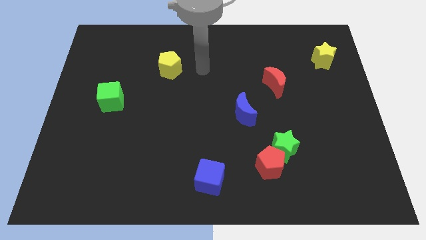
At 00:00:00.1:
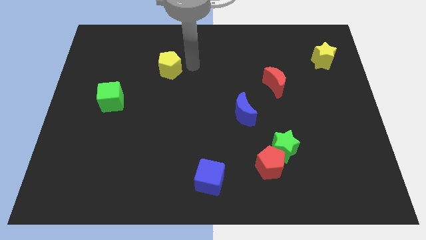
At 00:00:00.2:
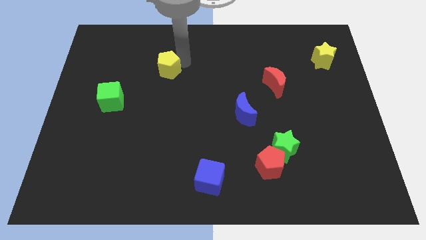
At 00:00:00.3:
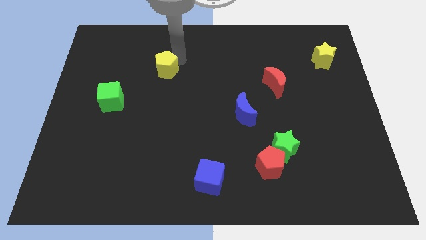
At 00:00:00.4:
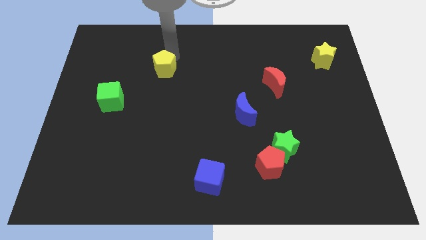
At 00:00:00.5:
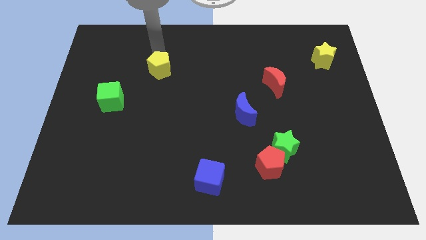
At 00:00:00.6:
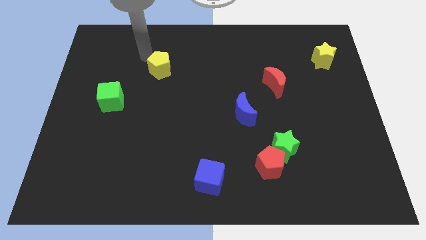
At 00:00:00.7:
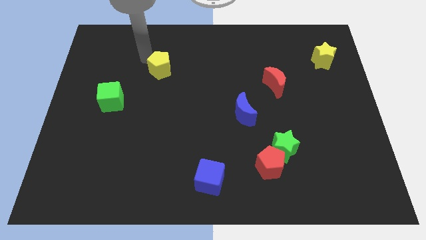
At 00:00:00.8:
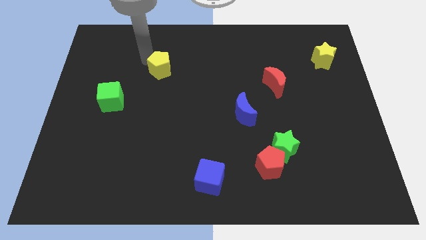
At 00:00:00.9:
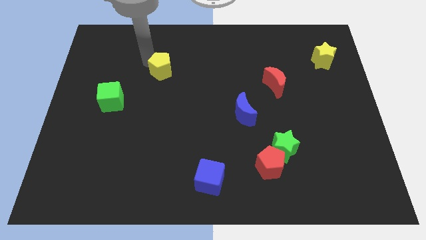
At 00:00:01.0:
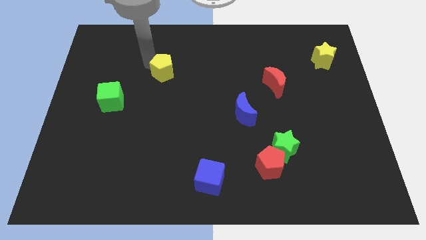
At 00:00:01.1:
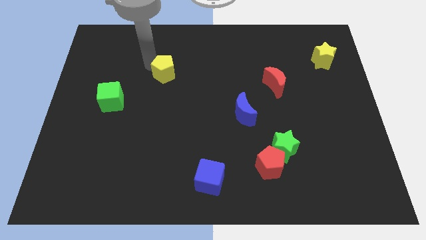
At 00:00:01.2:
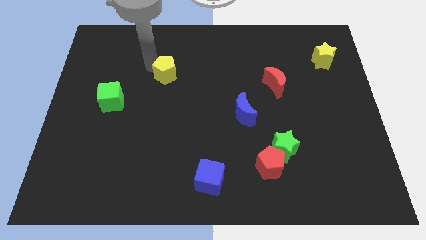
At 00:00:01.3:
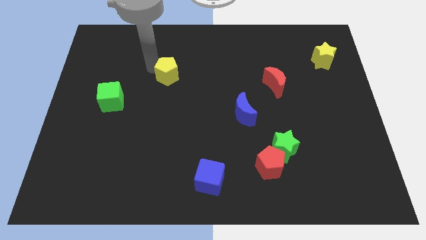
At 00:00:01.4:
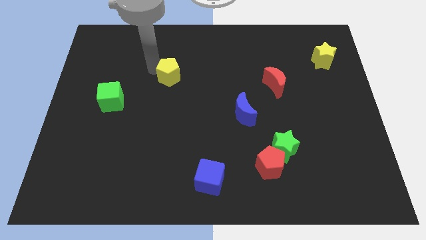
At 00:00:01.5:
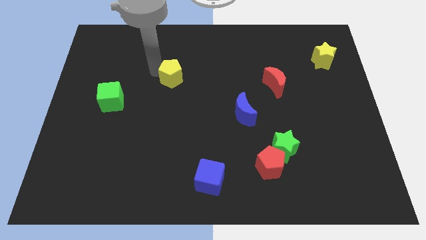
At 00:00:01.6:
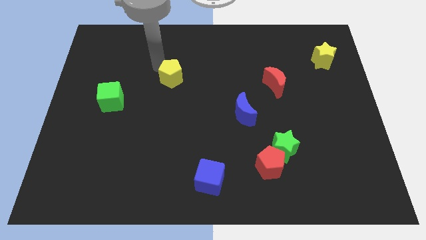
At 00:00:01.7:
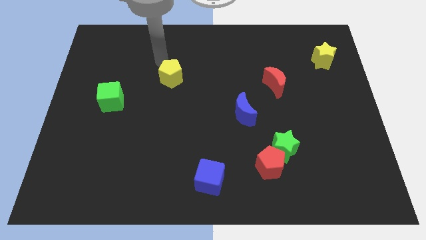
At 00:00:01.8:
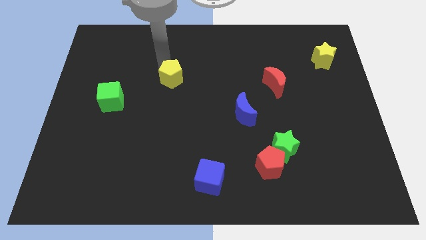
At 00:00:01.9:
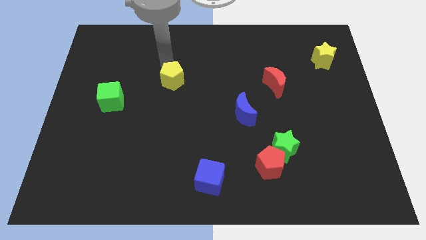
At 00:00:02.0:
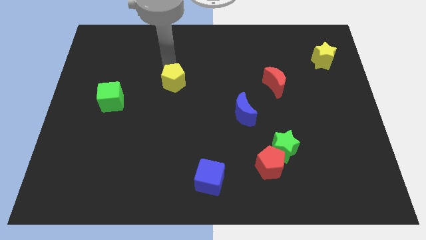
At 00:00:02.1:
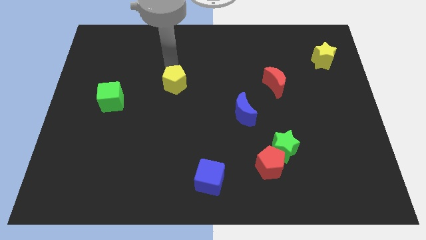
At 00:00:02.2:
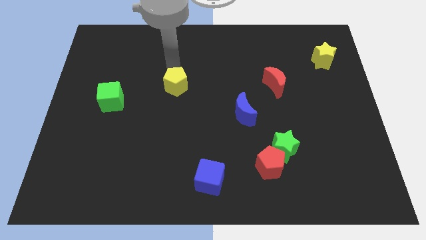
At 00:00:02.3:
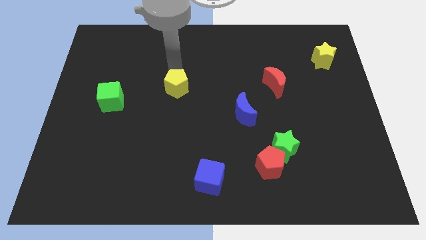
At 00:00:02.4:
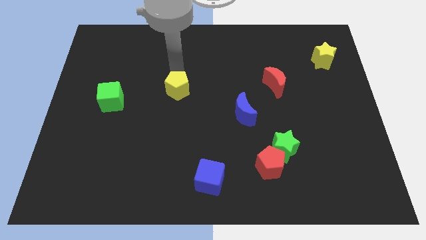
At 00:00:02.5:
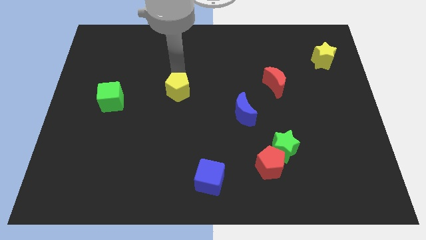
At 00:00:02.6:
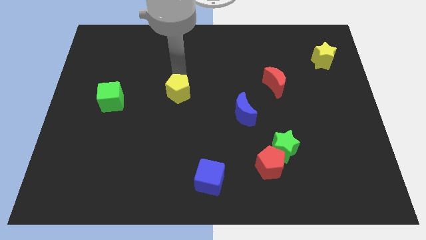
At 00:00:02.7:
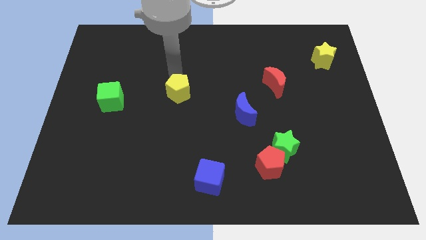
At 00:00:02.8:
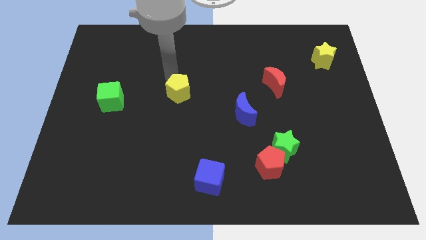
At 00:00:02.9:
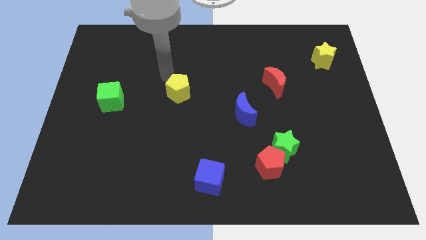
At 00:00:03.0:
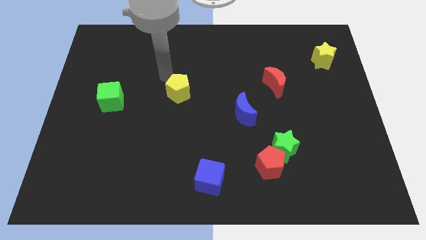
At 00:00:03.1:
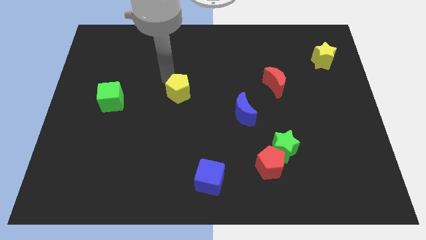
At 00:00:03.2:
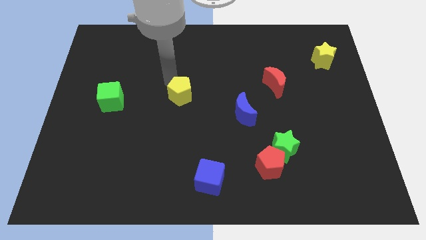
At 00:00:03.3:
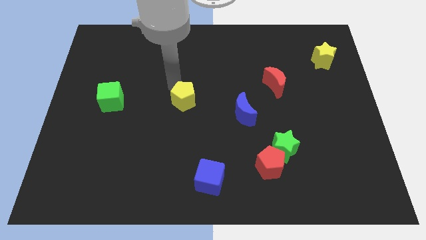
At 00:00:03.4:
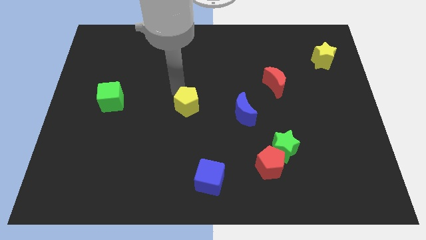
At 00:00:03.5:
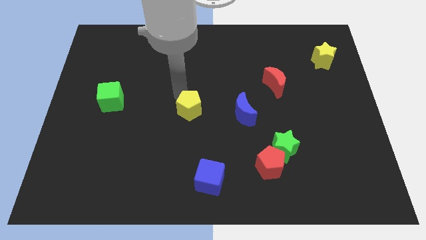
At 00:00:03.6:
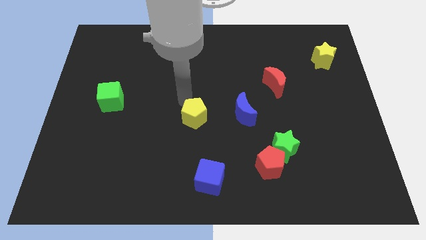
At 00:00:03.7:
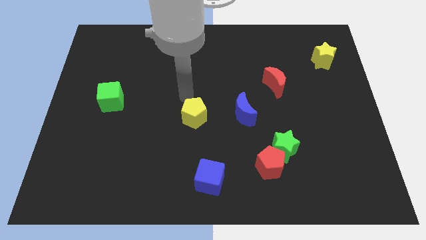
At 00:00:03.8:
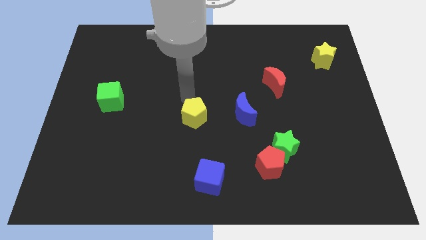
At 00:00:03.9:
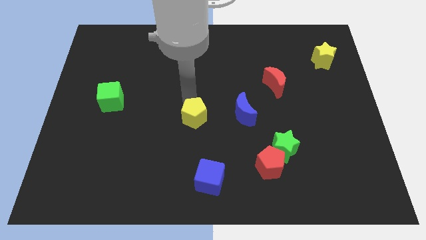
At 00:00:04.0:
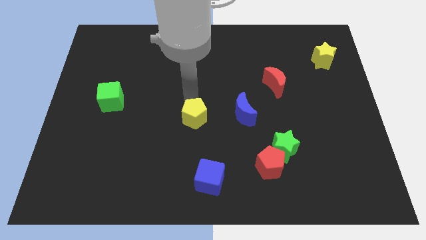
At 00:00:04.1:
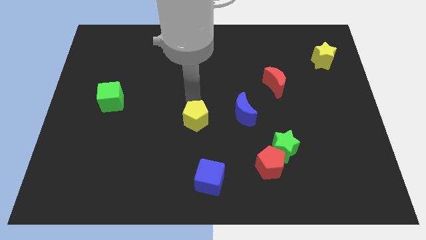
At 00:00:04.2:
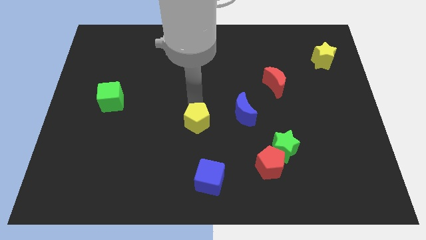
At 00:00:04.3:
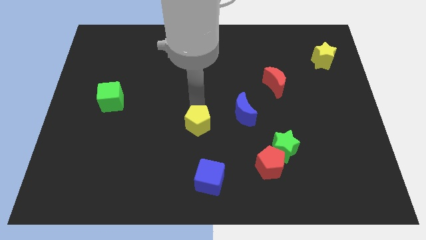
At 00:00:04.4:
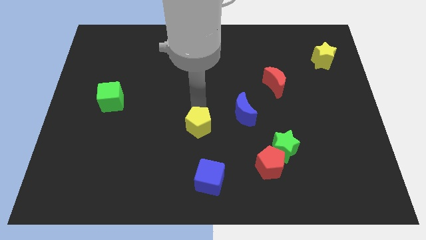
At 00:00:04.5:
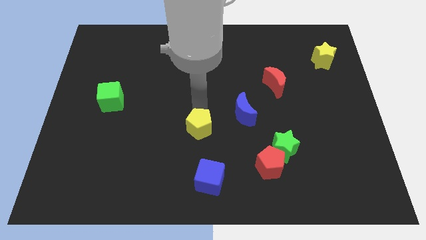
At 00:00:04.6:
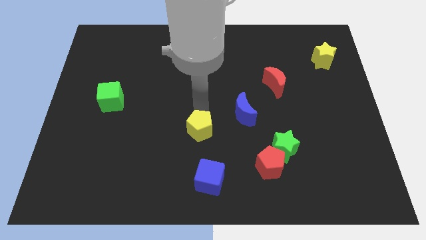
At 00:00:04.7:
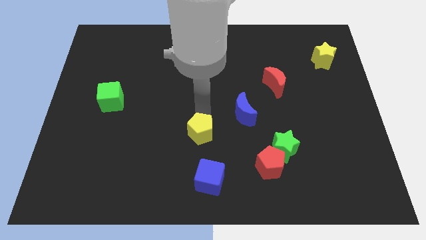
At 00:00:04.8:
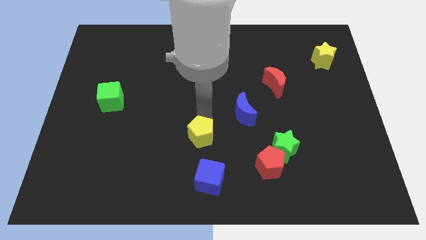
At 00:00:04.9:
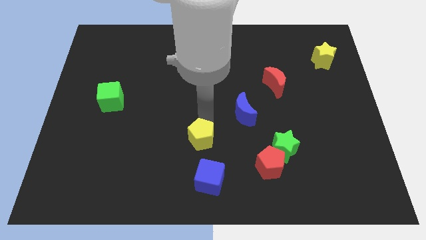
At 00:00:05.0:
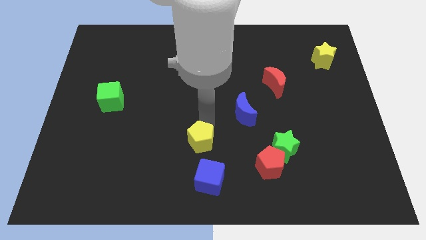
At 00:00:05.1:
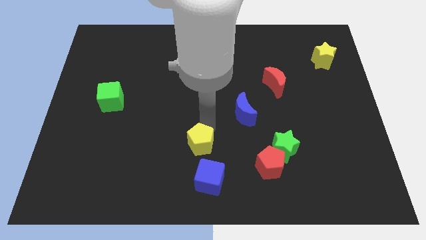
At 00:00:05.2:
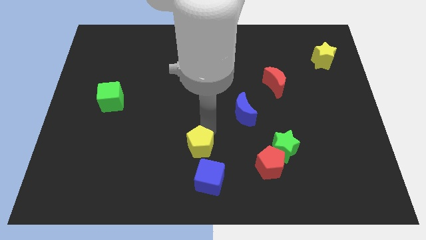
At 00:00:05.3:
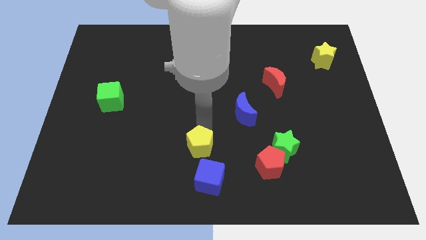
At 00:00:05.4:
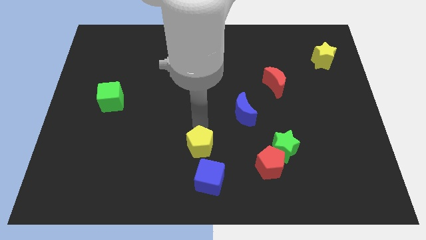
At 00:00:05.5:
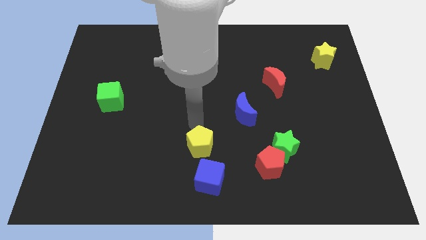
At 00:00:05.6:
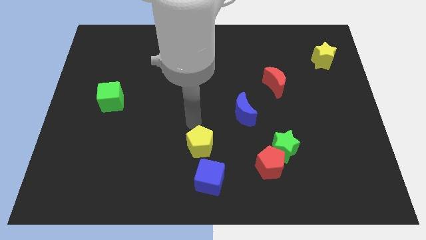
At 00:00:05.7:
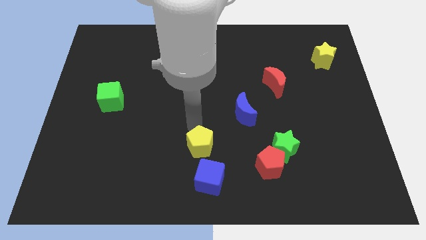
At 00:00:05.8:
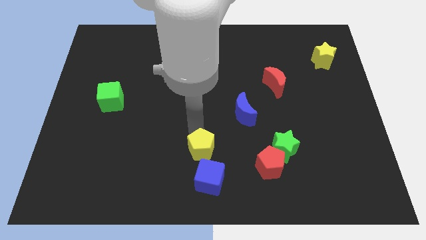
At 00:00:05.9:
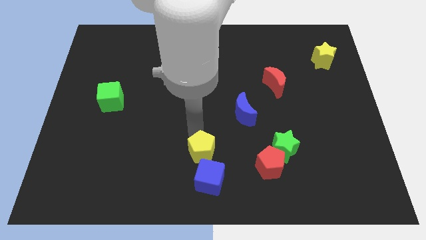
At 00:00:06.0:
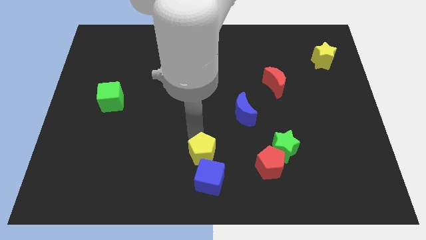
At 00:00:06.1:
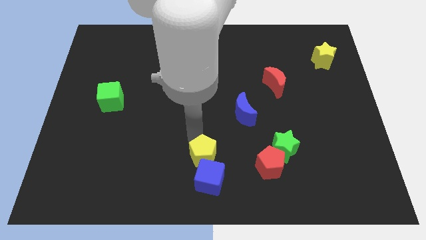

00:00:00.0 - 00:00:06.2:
move the yellow pentagon towards the blue cube

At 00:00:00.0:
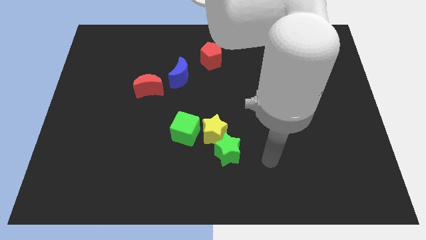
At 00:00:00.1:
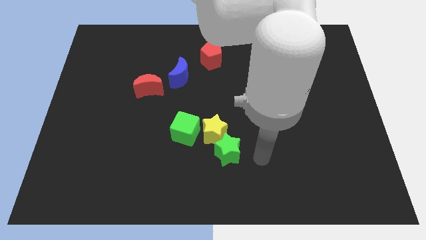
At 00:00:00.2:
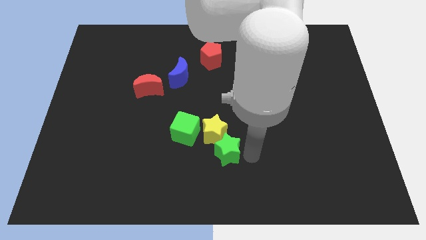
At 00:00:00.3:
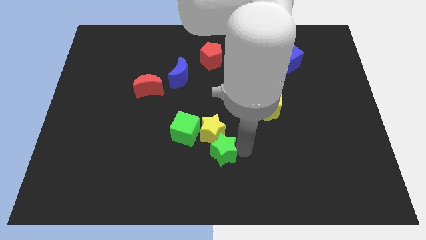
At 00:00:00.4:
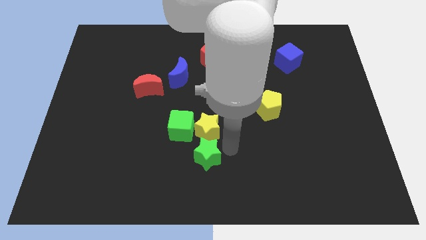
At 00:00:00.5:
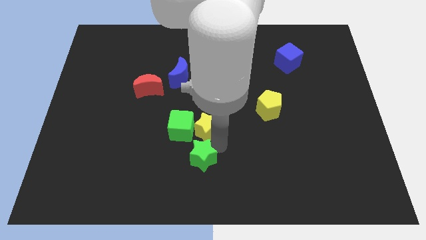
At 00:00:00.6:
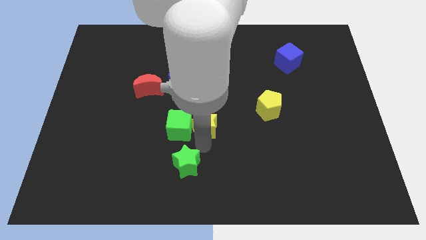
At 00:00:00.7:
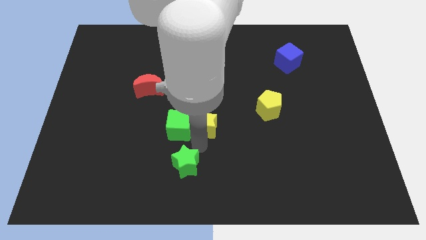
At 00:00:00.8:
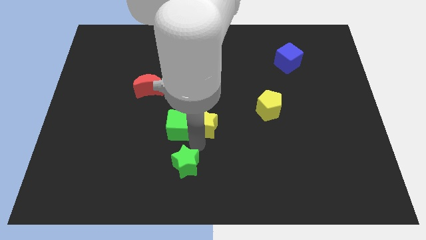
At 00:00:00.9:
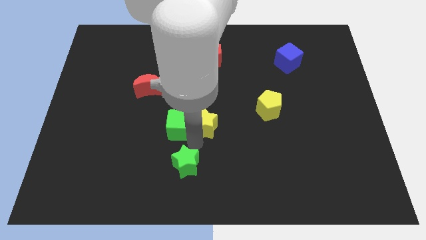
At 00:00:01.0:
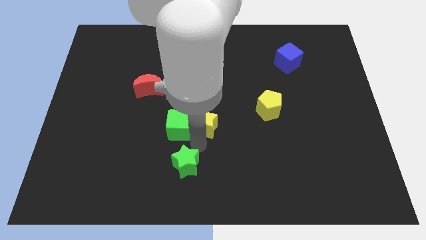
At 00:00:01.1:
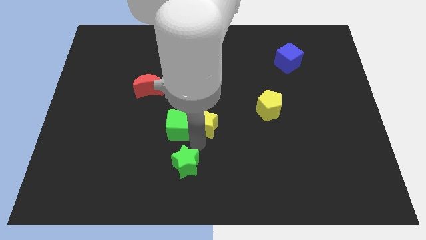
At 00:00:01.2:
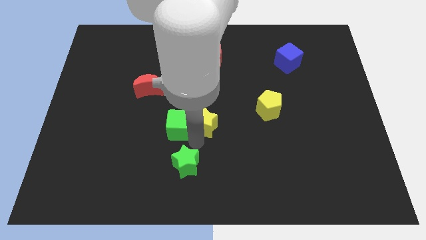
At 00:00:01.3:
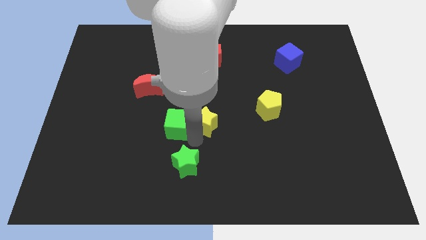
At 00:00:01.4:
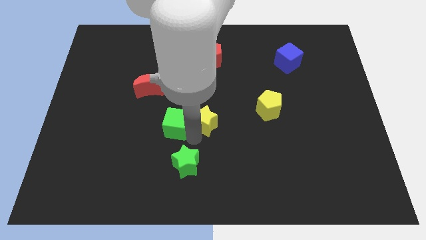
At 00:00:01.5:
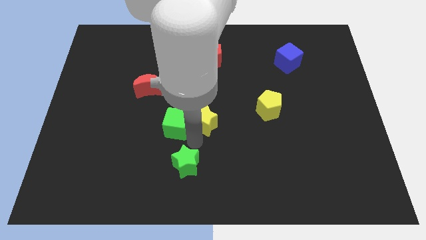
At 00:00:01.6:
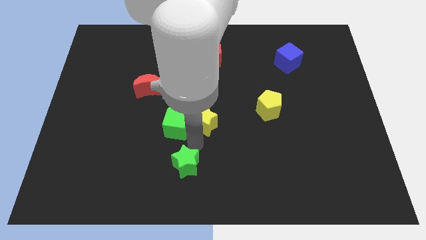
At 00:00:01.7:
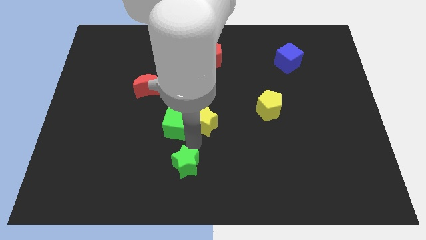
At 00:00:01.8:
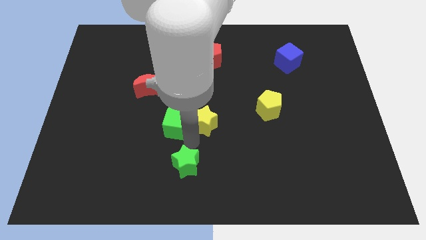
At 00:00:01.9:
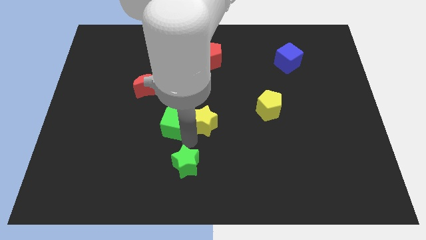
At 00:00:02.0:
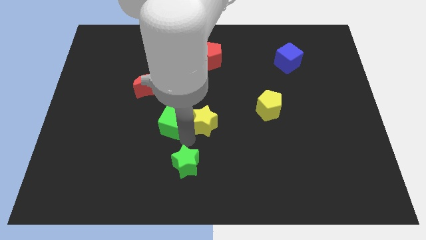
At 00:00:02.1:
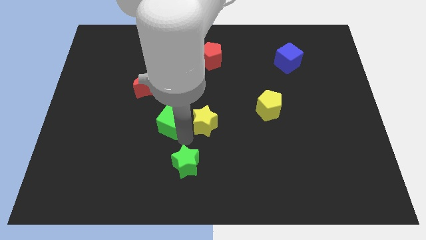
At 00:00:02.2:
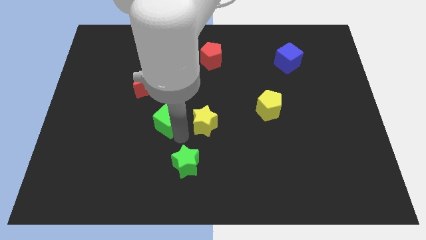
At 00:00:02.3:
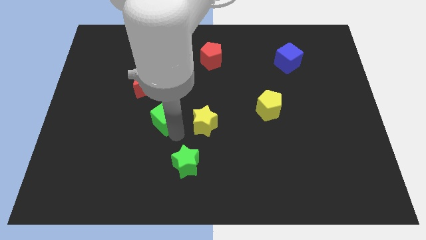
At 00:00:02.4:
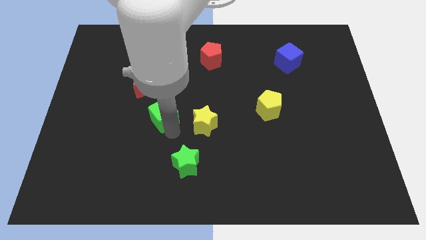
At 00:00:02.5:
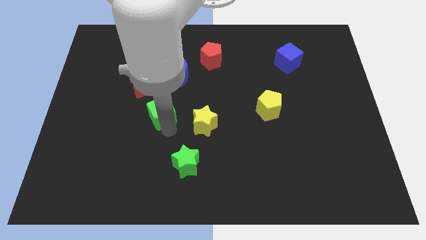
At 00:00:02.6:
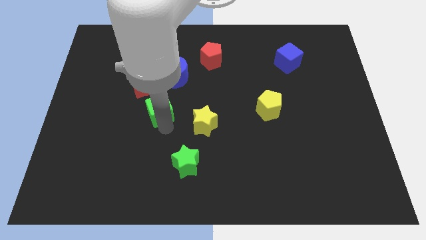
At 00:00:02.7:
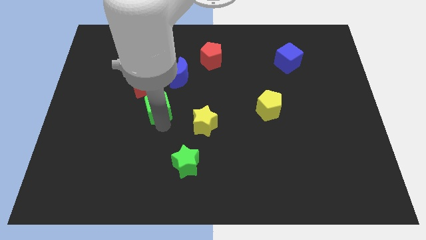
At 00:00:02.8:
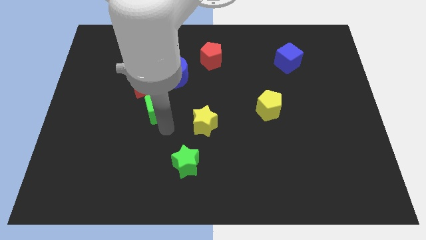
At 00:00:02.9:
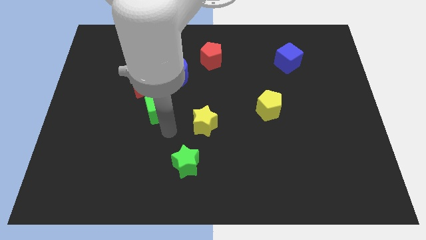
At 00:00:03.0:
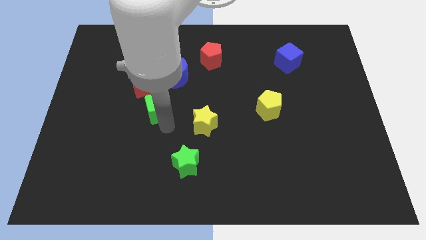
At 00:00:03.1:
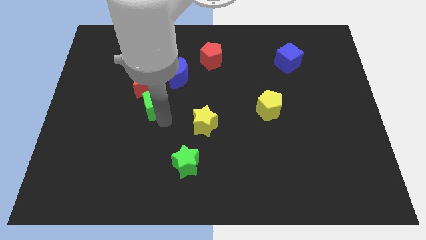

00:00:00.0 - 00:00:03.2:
move the green cube towards the red moon
